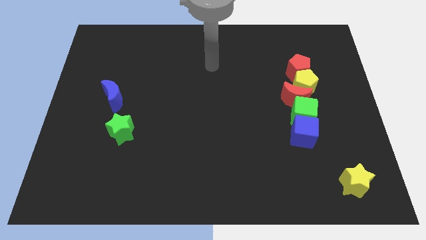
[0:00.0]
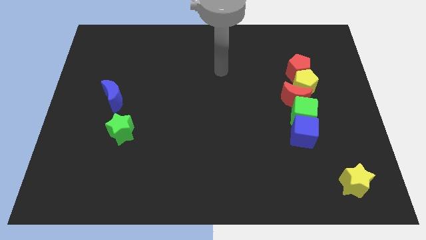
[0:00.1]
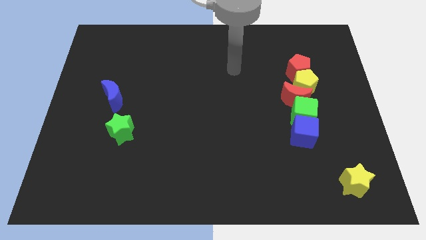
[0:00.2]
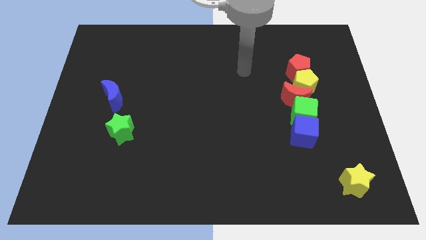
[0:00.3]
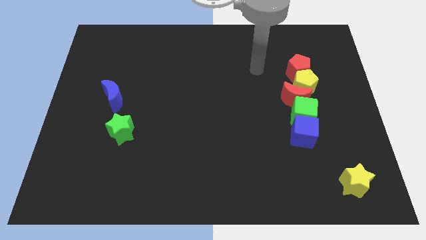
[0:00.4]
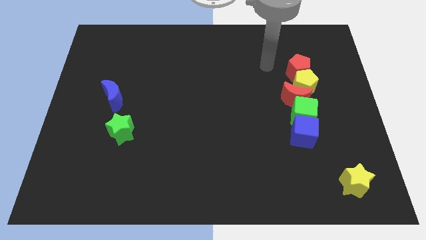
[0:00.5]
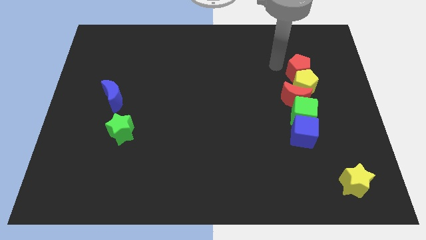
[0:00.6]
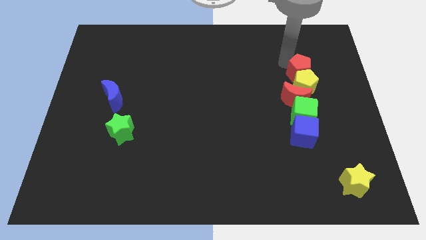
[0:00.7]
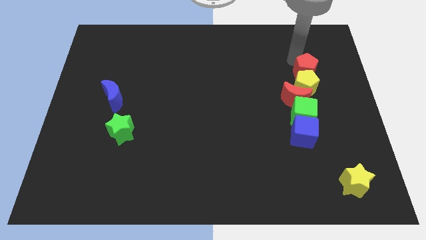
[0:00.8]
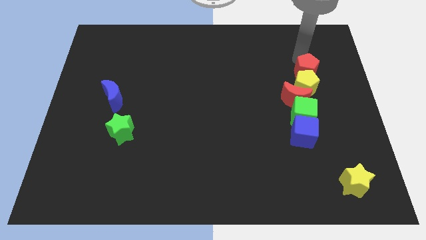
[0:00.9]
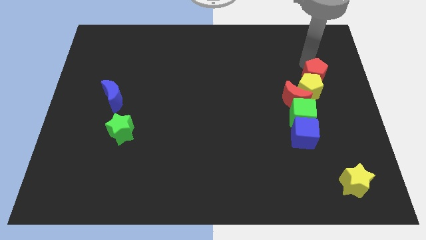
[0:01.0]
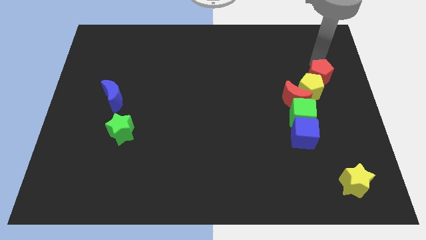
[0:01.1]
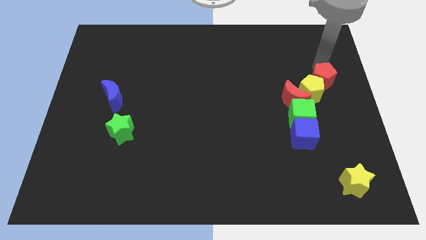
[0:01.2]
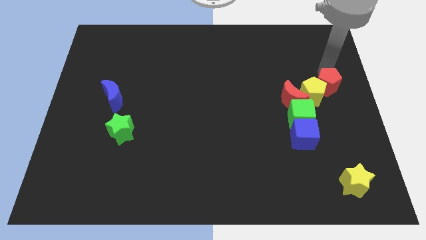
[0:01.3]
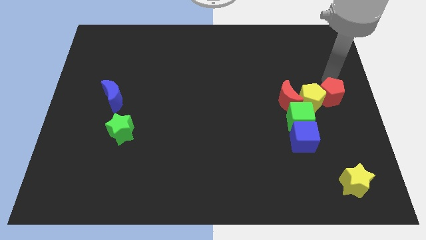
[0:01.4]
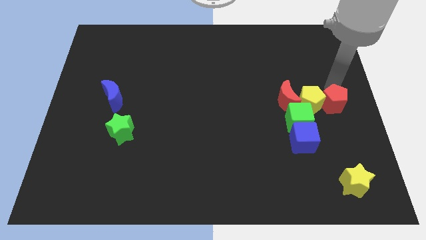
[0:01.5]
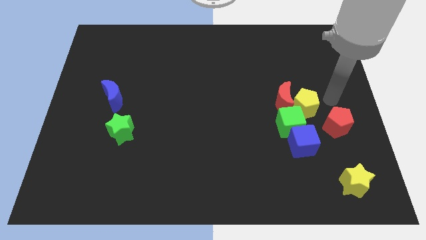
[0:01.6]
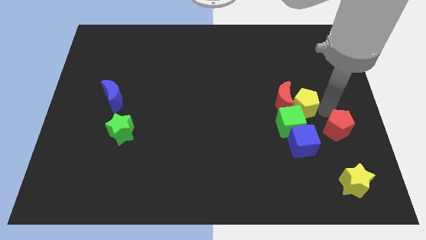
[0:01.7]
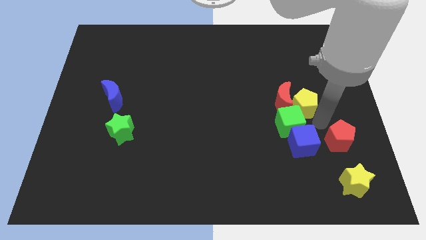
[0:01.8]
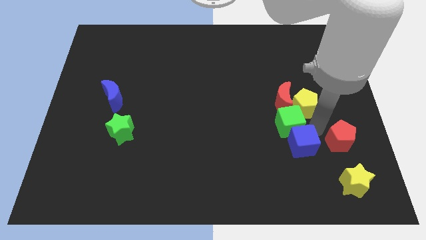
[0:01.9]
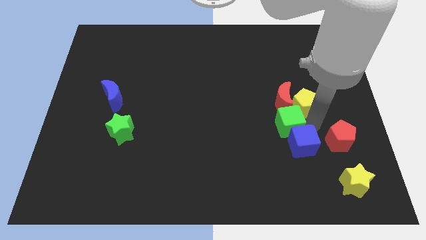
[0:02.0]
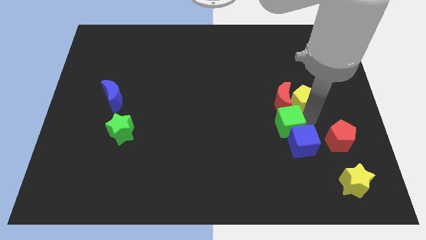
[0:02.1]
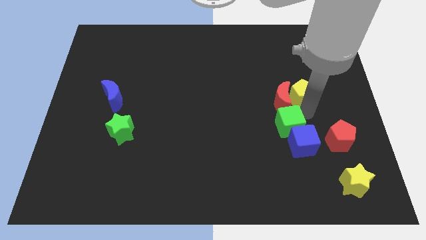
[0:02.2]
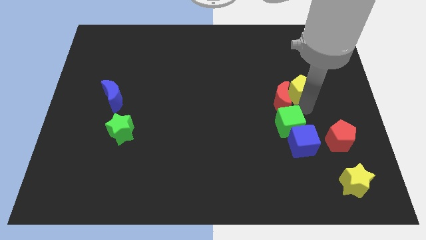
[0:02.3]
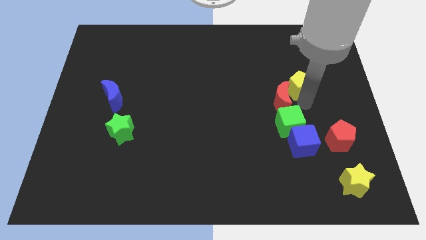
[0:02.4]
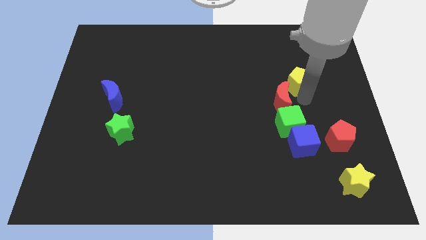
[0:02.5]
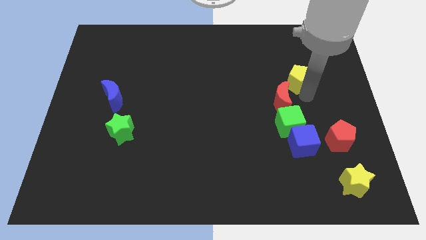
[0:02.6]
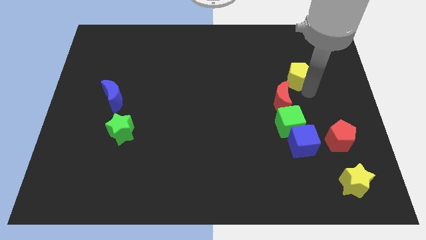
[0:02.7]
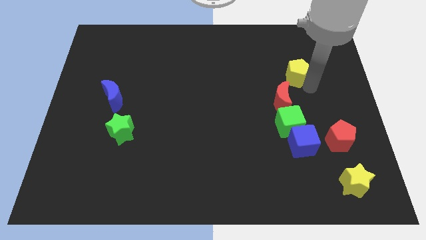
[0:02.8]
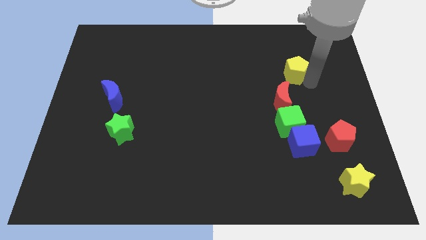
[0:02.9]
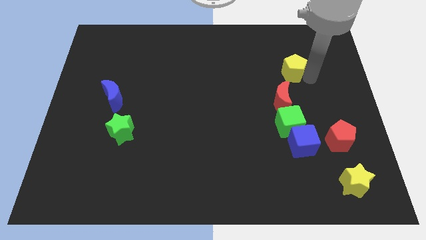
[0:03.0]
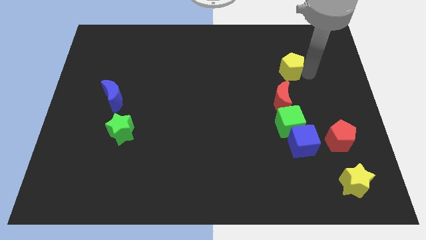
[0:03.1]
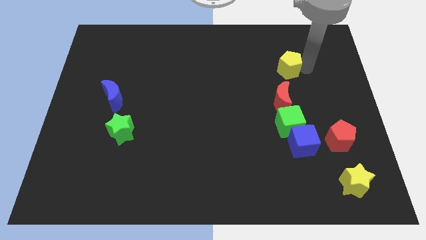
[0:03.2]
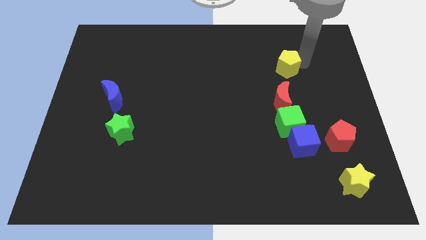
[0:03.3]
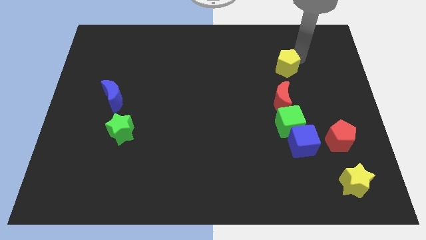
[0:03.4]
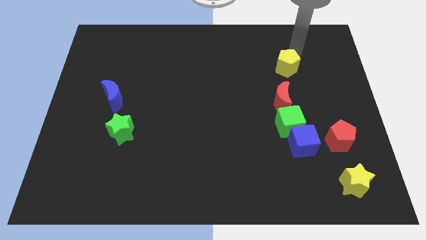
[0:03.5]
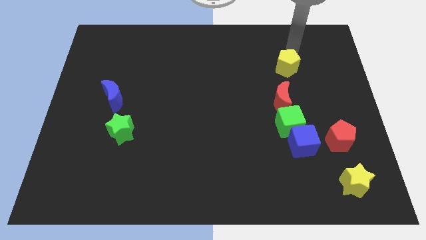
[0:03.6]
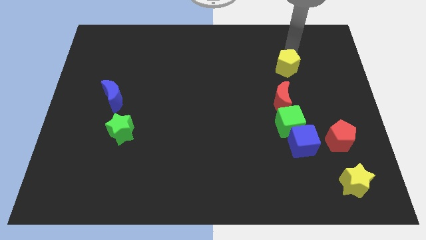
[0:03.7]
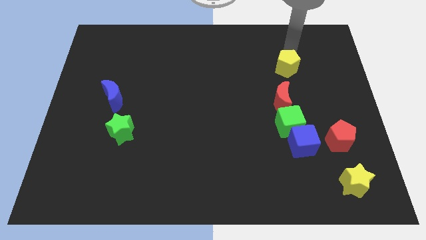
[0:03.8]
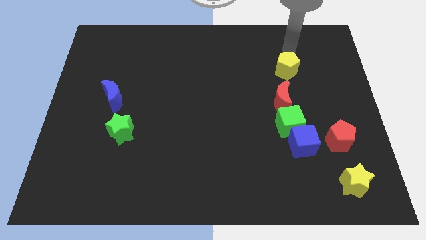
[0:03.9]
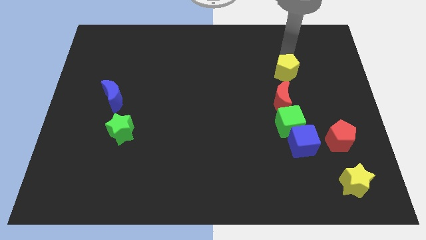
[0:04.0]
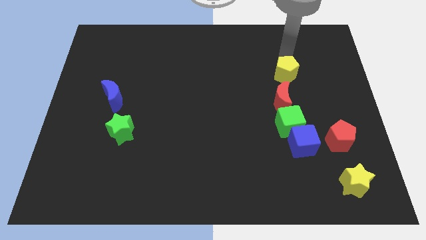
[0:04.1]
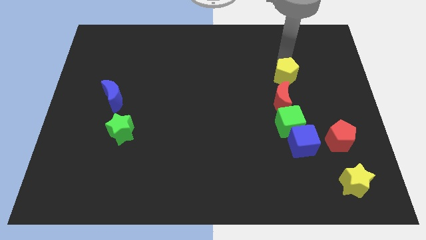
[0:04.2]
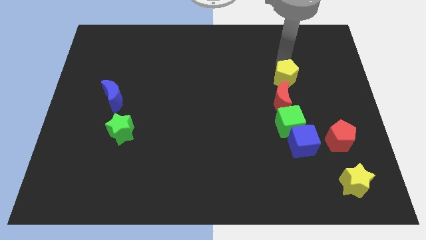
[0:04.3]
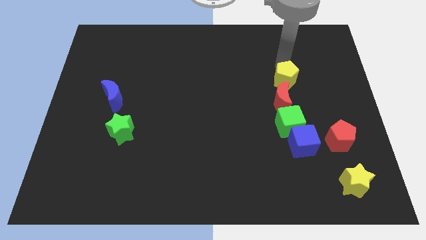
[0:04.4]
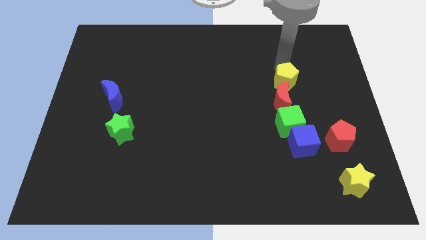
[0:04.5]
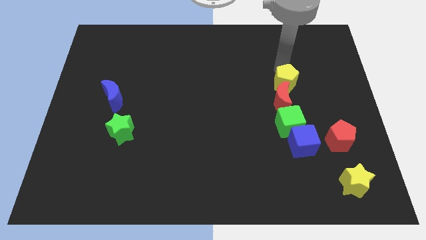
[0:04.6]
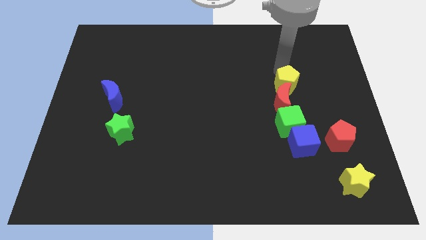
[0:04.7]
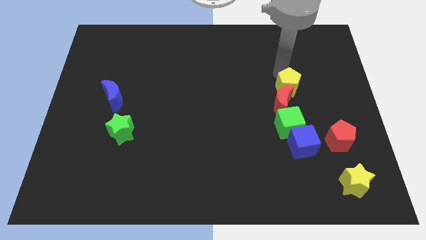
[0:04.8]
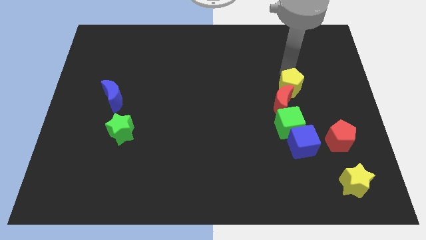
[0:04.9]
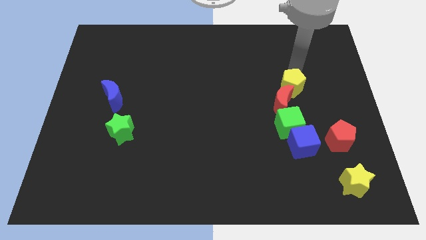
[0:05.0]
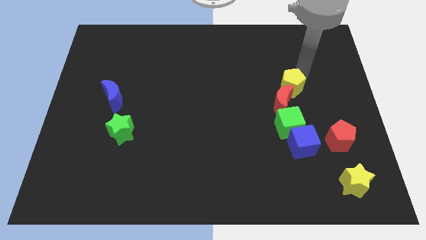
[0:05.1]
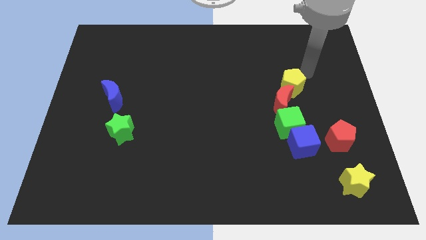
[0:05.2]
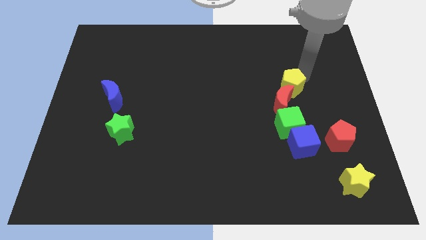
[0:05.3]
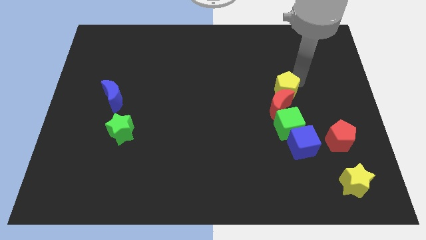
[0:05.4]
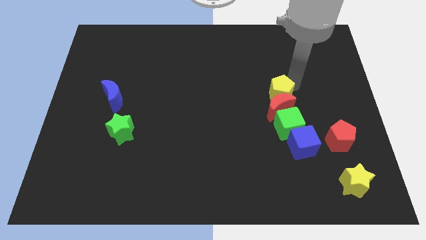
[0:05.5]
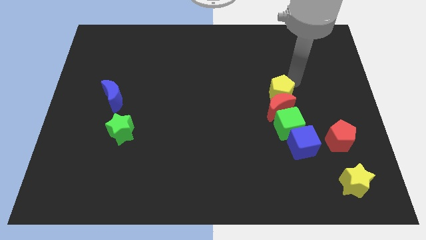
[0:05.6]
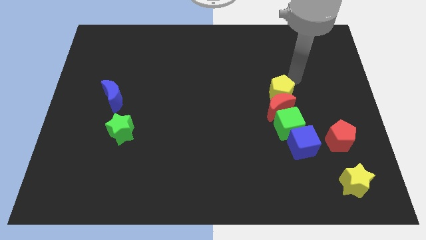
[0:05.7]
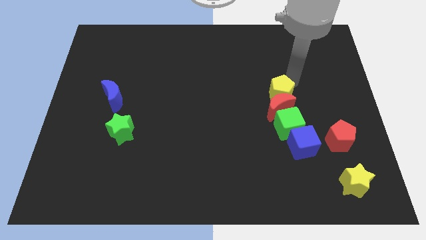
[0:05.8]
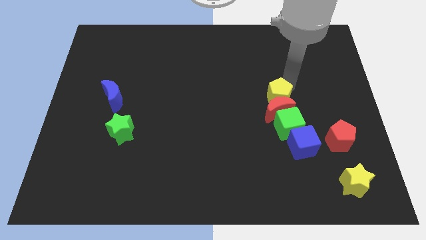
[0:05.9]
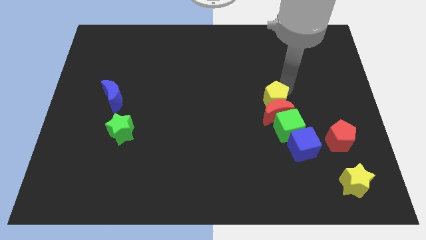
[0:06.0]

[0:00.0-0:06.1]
push the yellow pentagon a little bit diagonally downwards and left

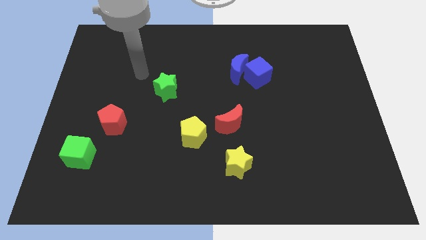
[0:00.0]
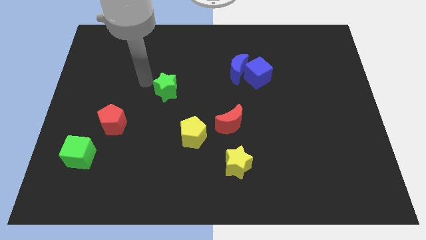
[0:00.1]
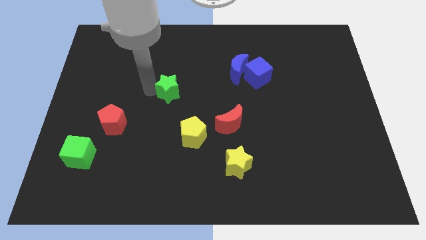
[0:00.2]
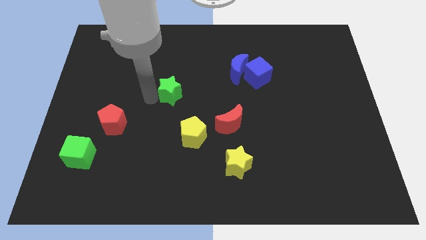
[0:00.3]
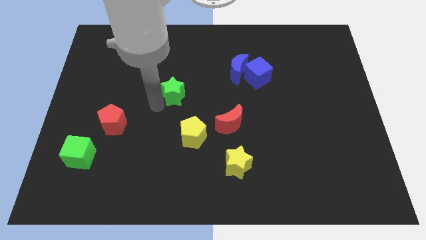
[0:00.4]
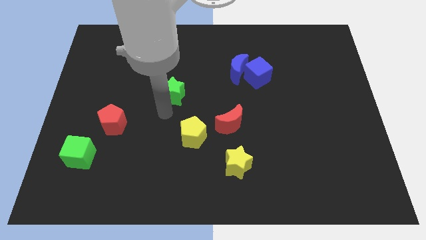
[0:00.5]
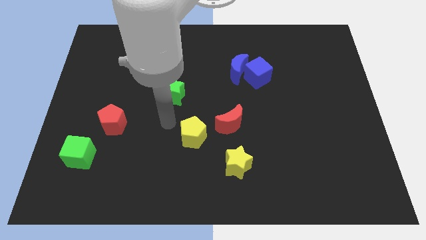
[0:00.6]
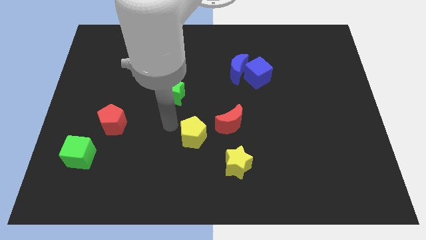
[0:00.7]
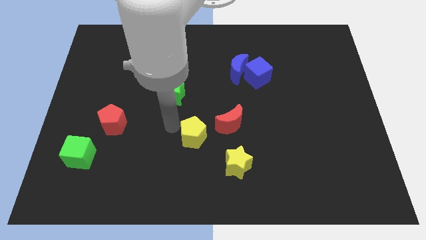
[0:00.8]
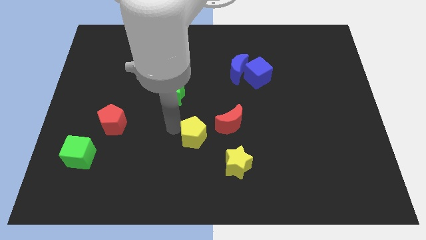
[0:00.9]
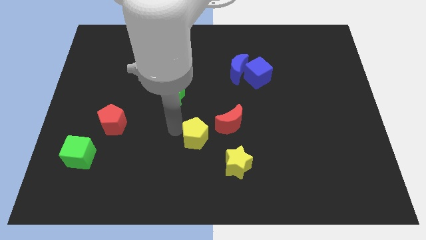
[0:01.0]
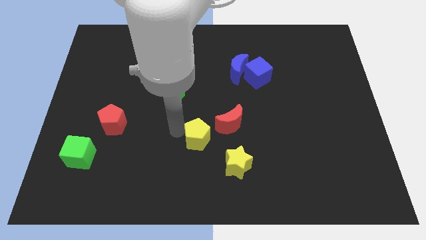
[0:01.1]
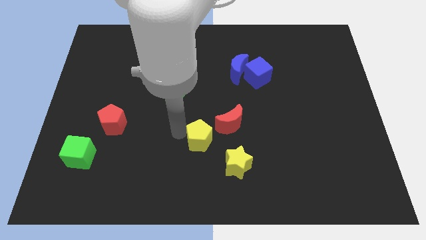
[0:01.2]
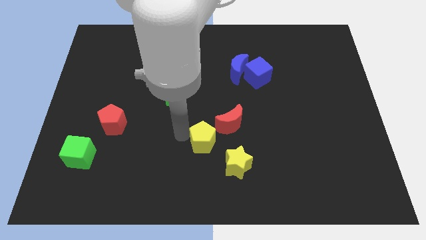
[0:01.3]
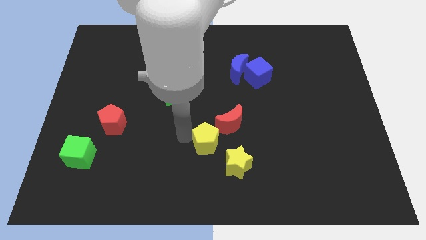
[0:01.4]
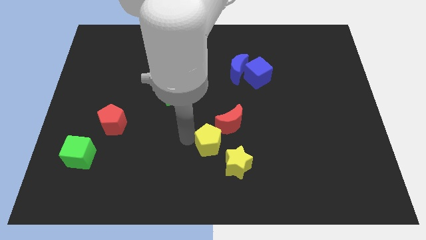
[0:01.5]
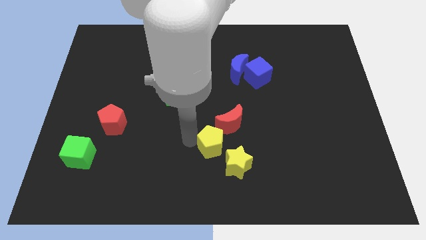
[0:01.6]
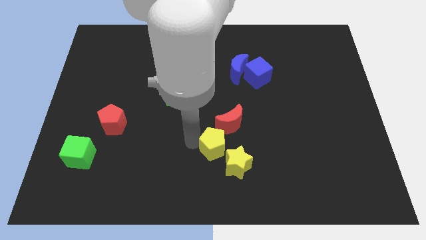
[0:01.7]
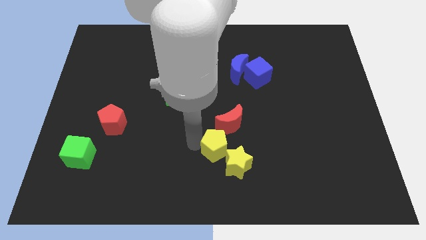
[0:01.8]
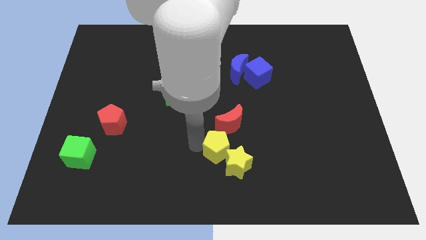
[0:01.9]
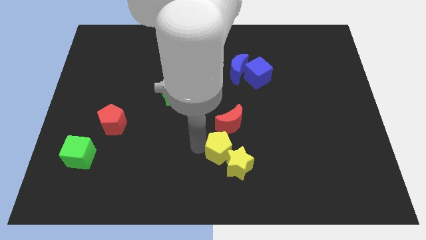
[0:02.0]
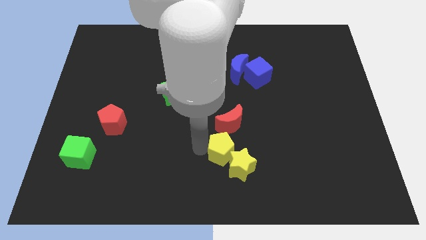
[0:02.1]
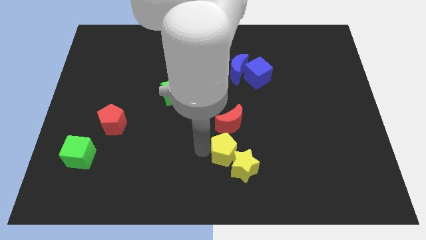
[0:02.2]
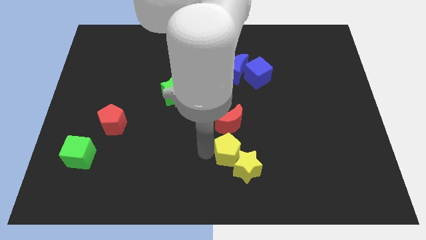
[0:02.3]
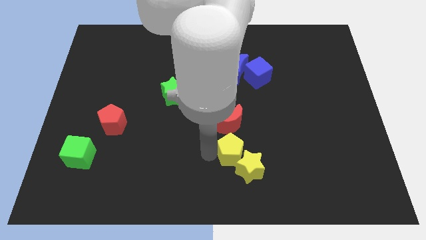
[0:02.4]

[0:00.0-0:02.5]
push the yellow pentagon right a little bit
